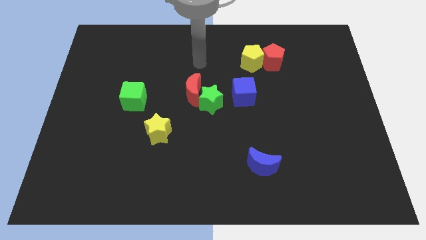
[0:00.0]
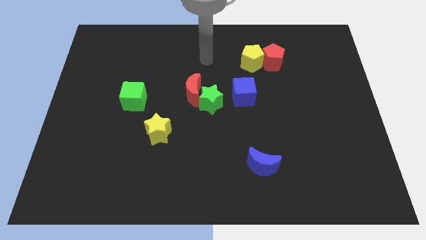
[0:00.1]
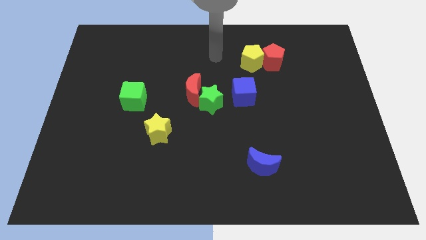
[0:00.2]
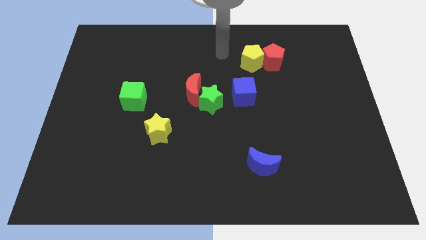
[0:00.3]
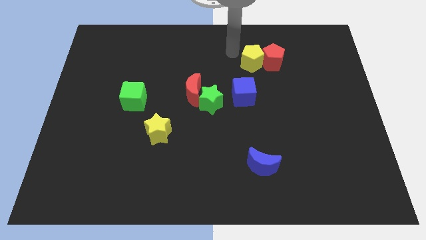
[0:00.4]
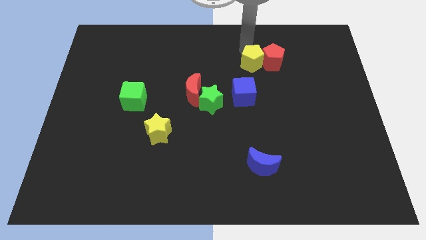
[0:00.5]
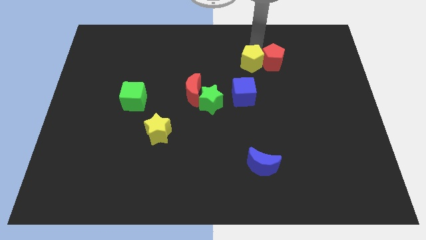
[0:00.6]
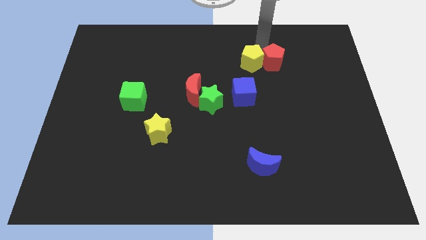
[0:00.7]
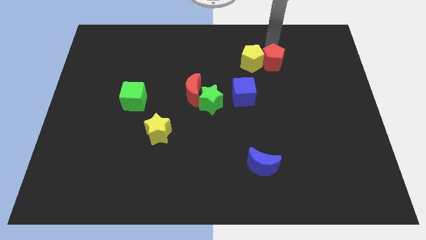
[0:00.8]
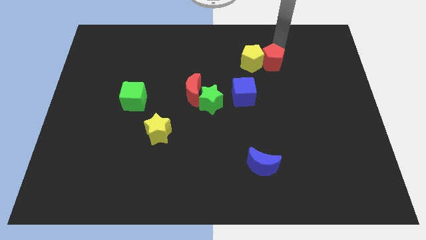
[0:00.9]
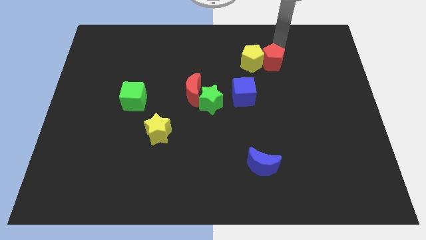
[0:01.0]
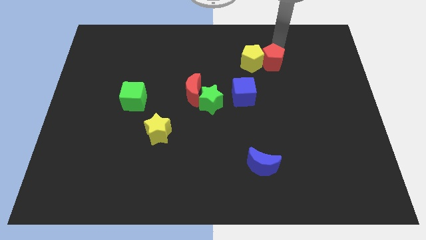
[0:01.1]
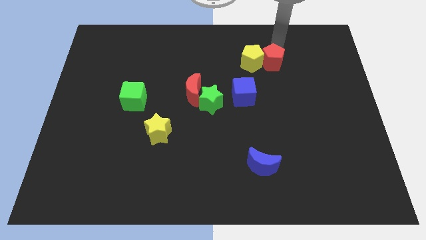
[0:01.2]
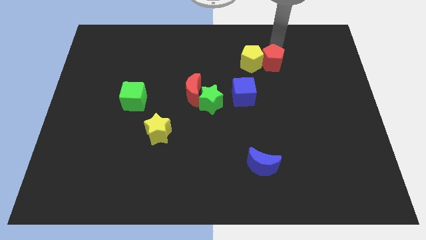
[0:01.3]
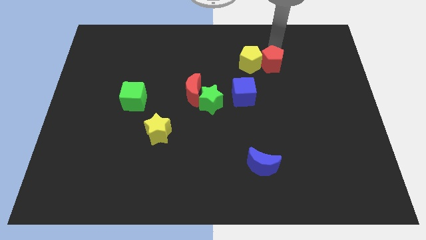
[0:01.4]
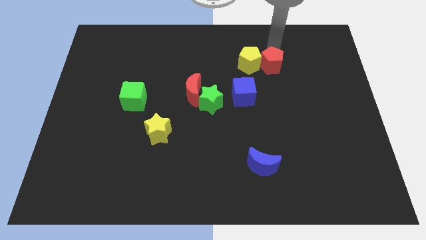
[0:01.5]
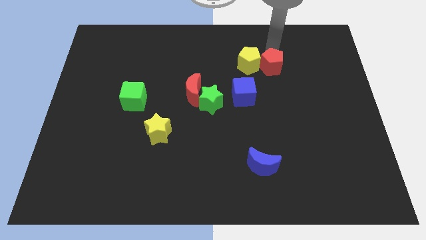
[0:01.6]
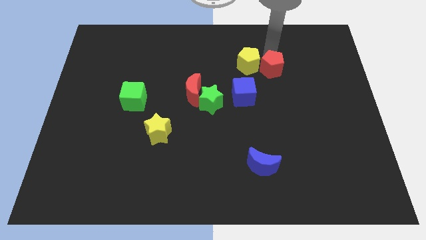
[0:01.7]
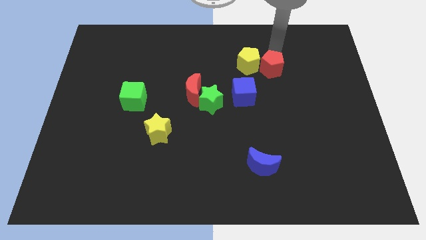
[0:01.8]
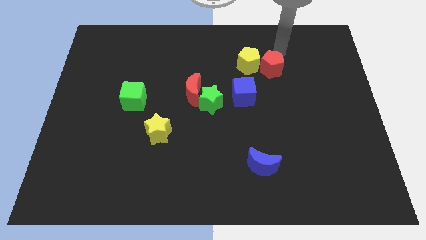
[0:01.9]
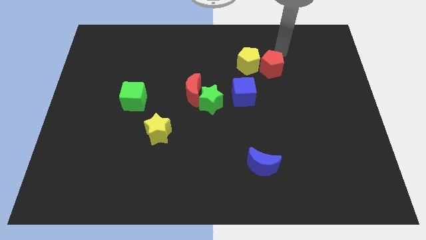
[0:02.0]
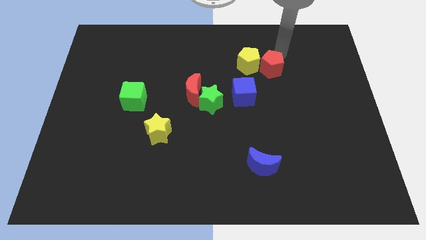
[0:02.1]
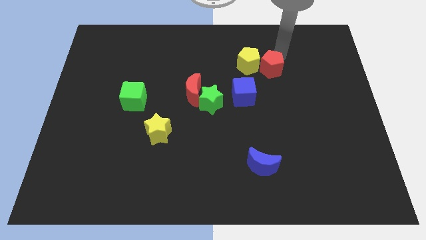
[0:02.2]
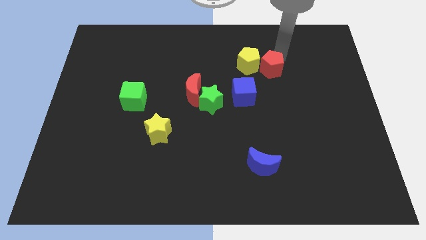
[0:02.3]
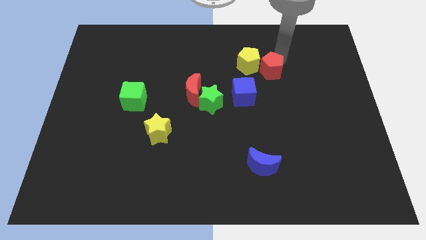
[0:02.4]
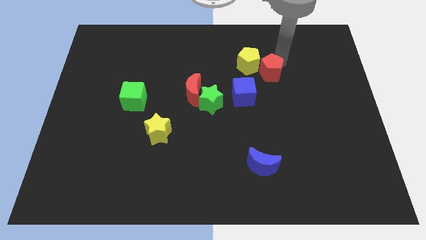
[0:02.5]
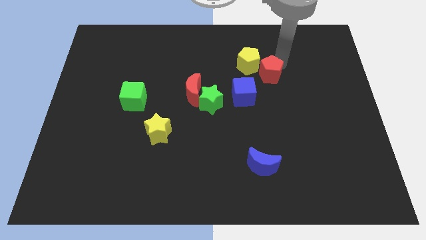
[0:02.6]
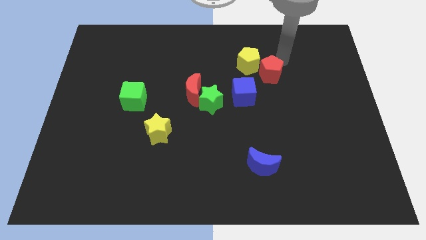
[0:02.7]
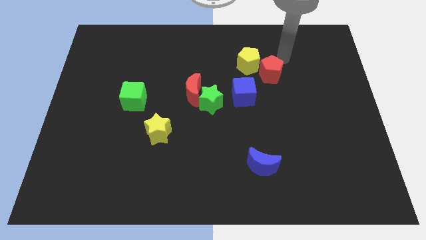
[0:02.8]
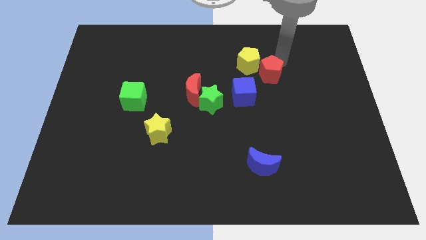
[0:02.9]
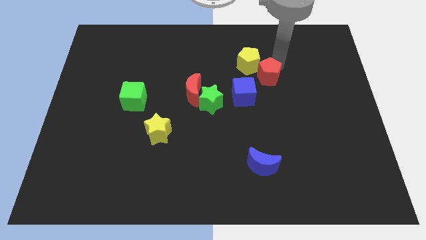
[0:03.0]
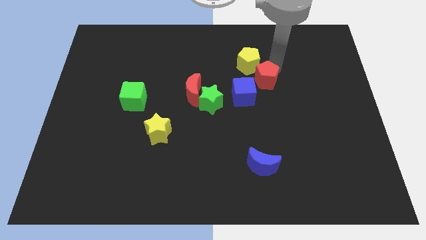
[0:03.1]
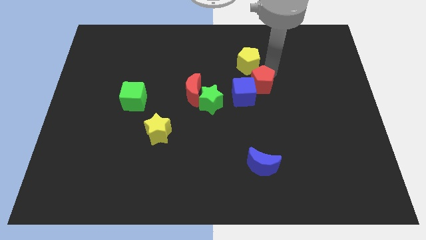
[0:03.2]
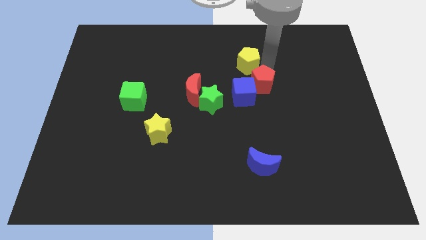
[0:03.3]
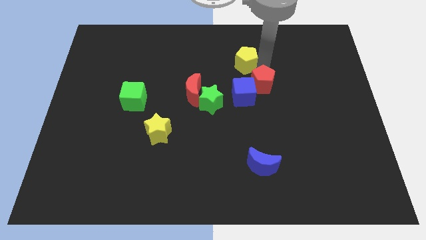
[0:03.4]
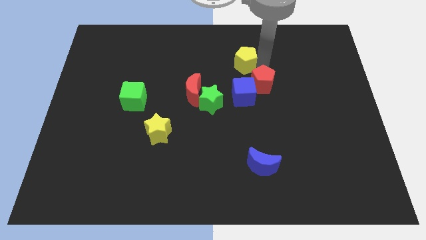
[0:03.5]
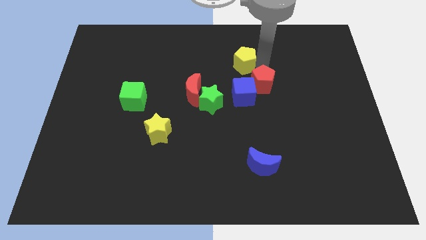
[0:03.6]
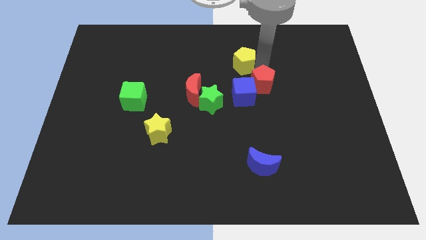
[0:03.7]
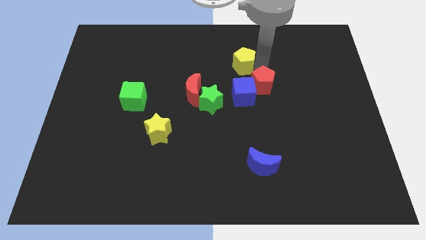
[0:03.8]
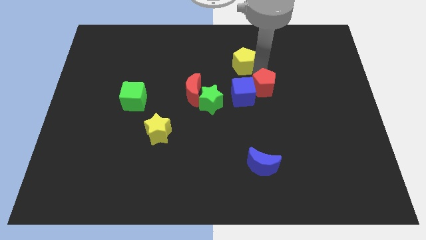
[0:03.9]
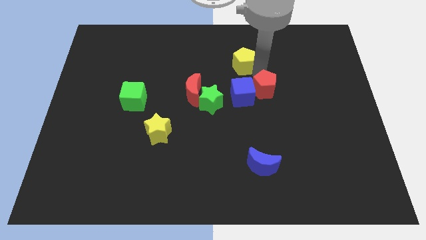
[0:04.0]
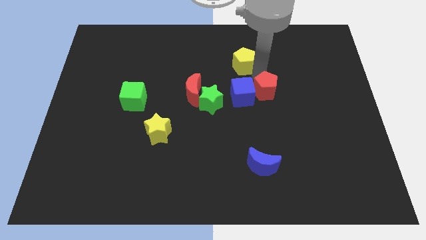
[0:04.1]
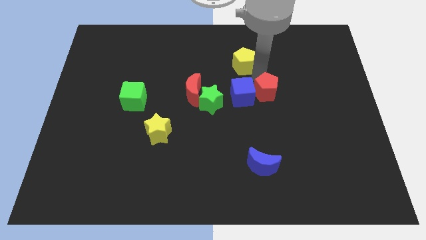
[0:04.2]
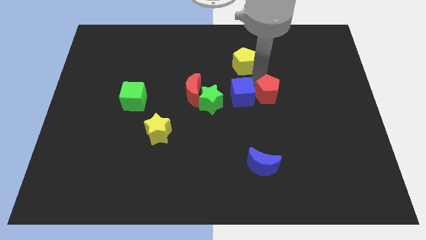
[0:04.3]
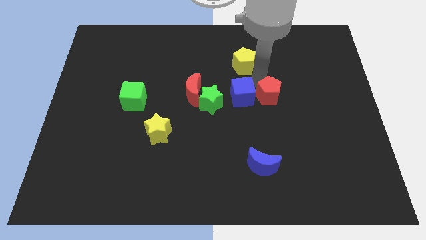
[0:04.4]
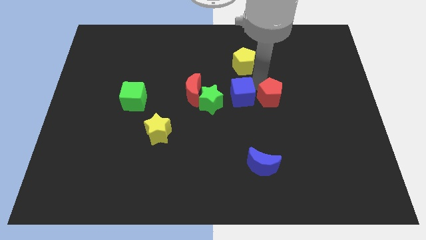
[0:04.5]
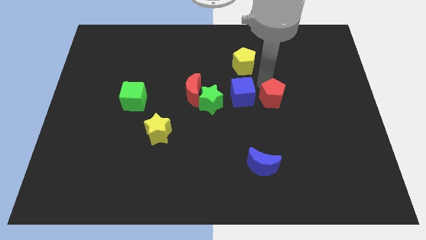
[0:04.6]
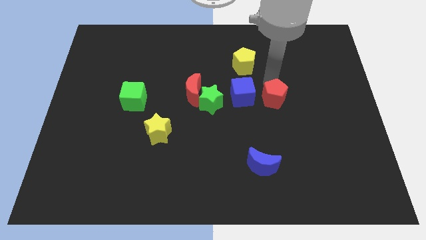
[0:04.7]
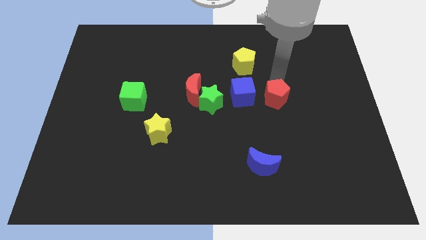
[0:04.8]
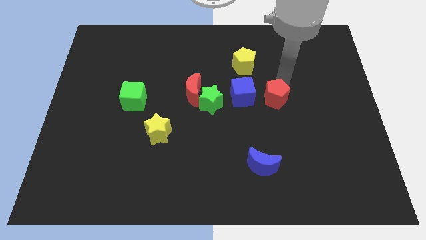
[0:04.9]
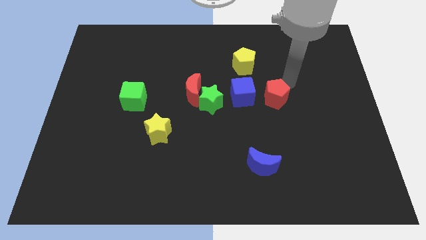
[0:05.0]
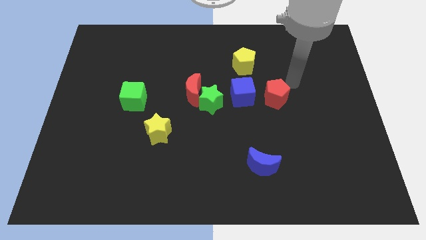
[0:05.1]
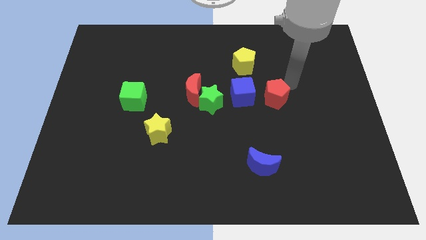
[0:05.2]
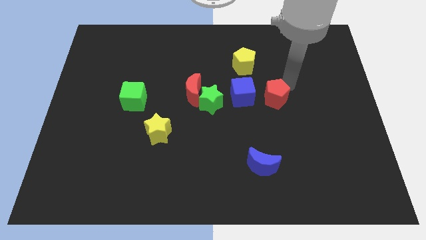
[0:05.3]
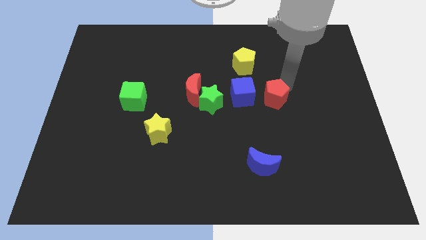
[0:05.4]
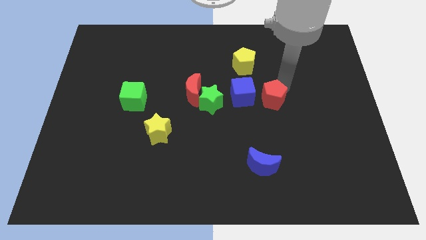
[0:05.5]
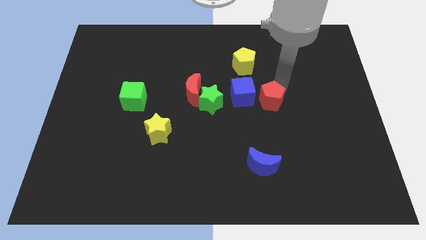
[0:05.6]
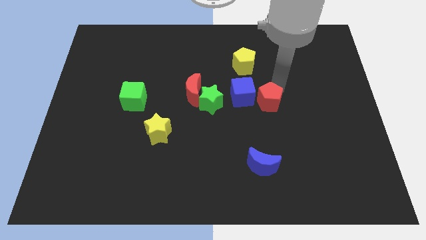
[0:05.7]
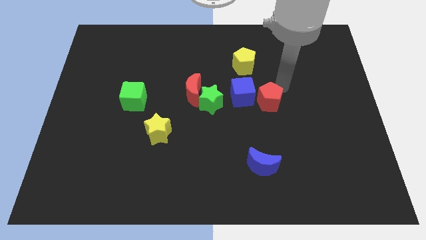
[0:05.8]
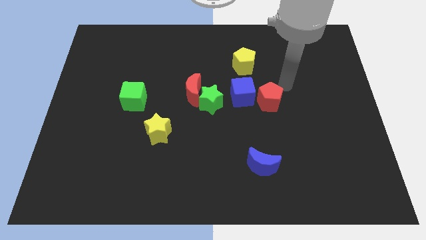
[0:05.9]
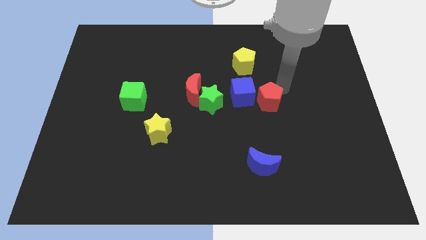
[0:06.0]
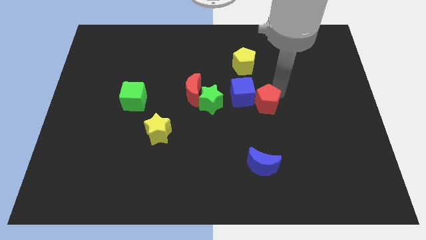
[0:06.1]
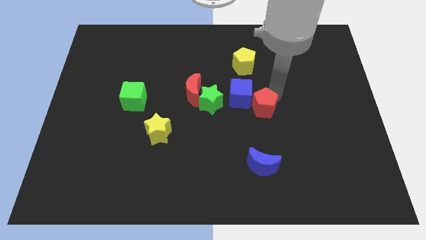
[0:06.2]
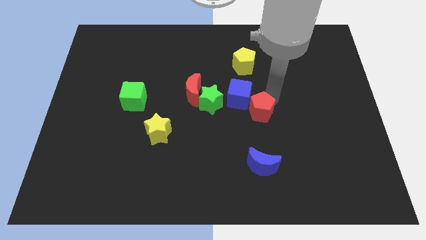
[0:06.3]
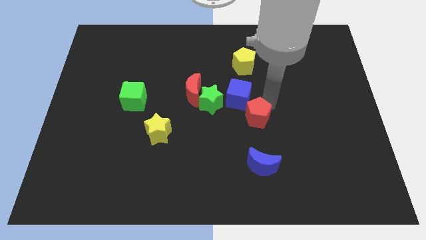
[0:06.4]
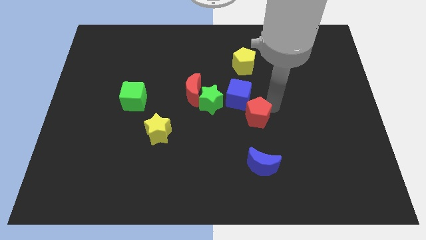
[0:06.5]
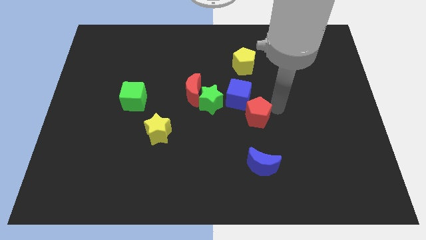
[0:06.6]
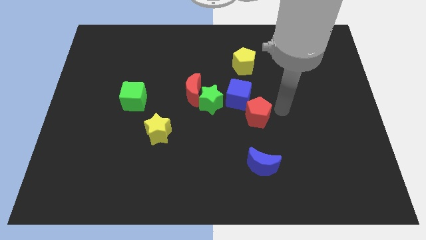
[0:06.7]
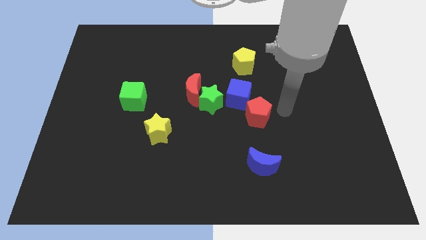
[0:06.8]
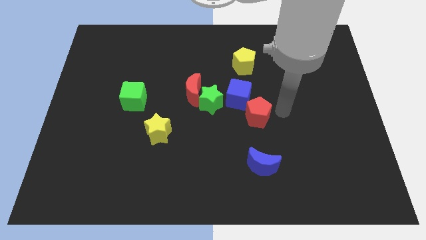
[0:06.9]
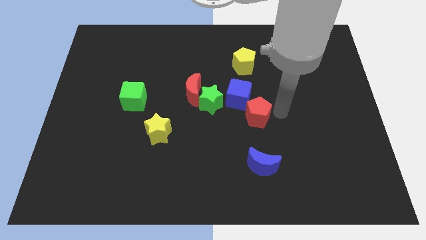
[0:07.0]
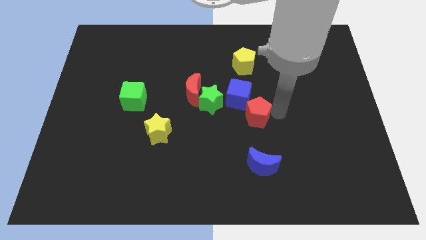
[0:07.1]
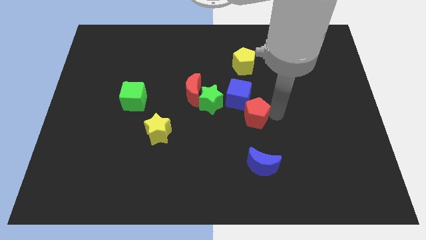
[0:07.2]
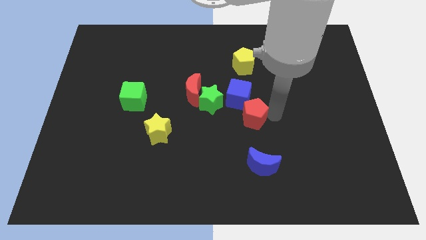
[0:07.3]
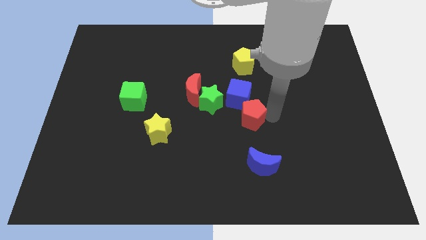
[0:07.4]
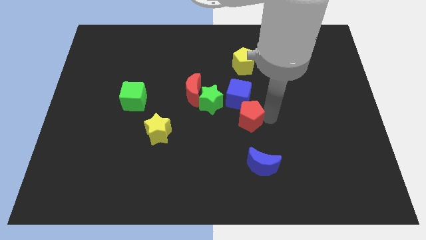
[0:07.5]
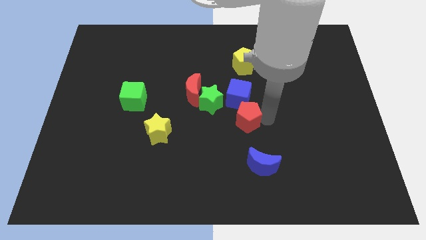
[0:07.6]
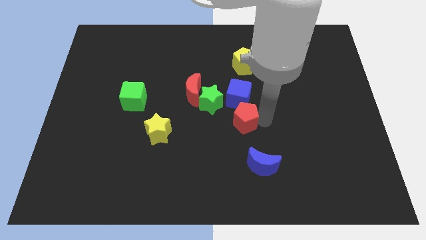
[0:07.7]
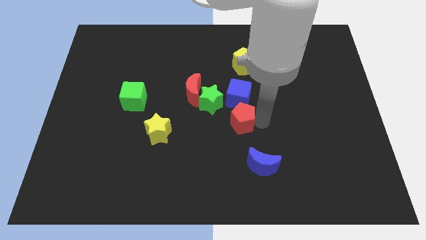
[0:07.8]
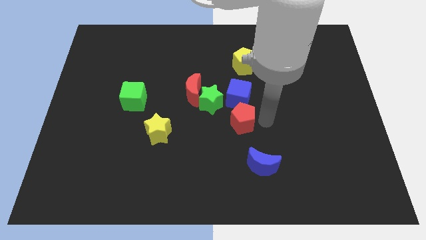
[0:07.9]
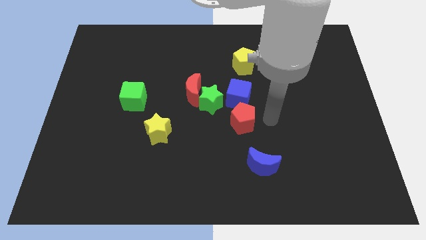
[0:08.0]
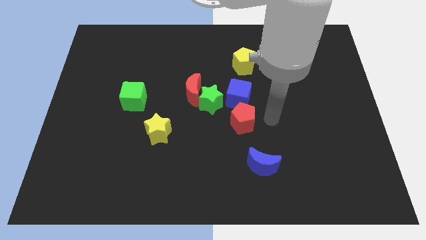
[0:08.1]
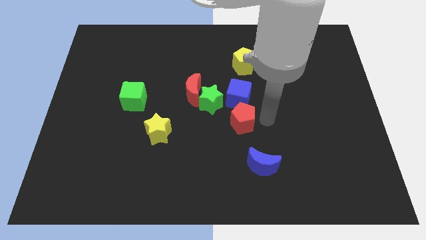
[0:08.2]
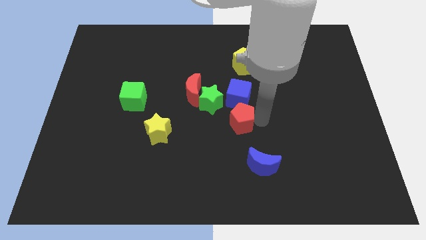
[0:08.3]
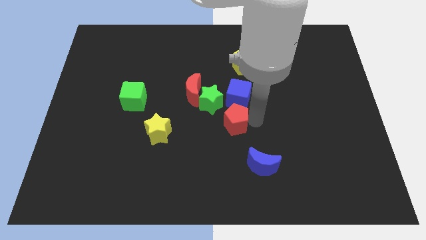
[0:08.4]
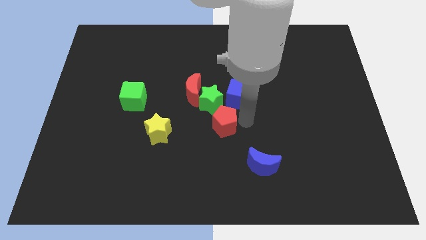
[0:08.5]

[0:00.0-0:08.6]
push the red pentagon down and then left

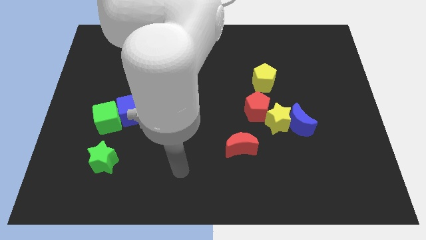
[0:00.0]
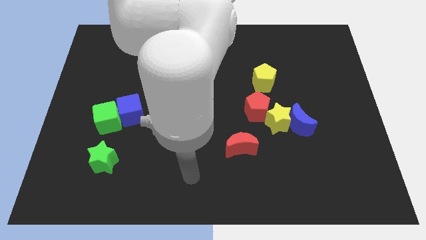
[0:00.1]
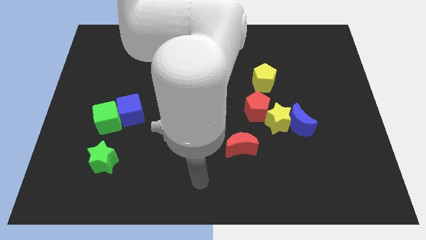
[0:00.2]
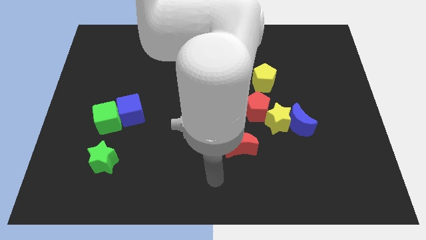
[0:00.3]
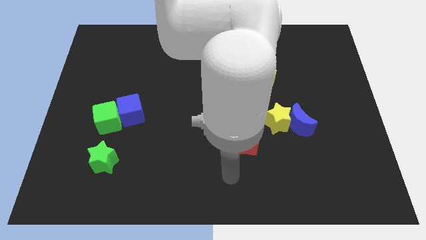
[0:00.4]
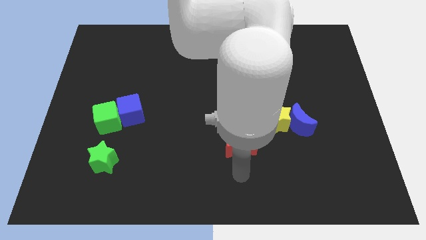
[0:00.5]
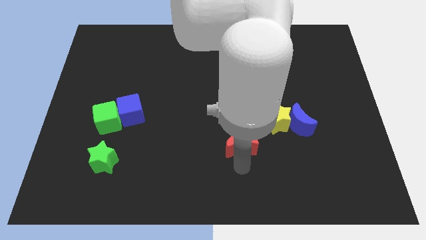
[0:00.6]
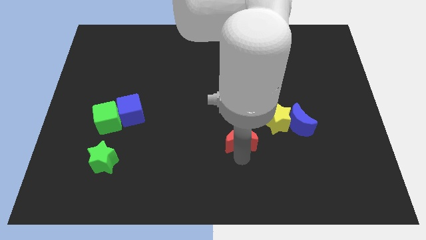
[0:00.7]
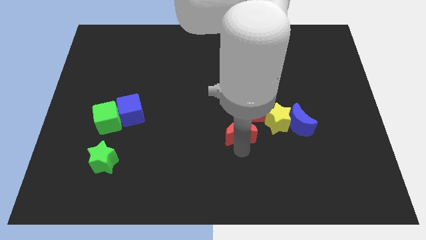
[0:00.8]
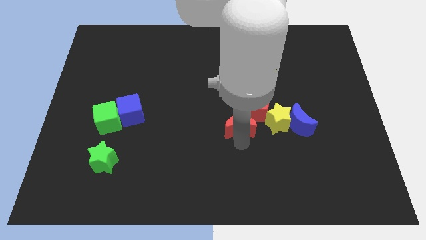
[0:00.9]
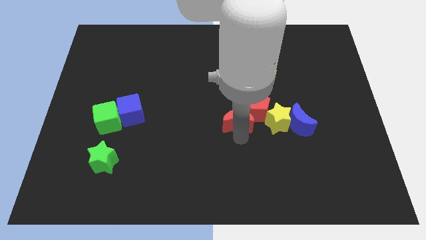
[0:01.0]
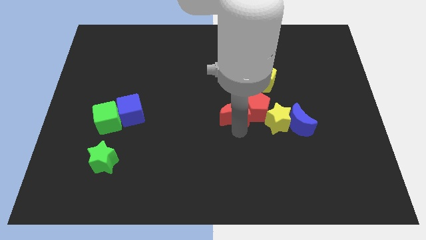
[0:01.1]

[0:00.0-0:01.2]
slide the red moon upwards slightly
